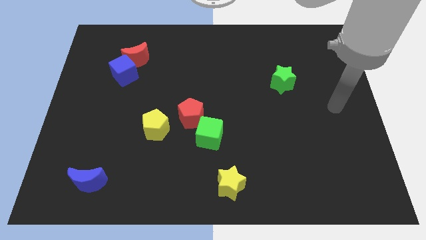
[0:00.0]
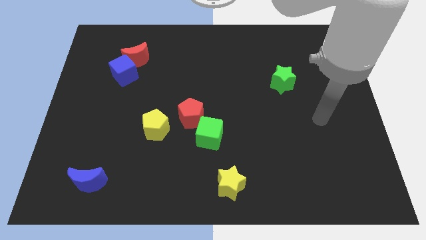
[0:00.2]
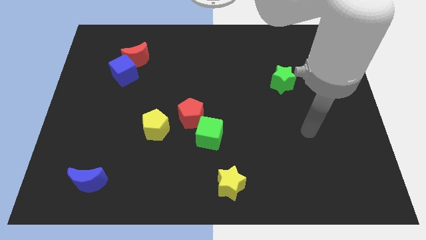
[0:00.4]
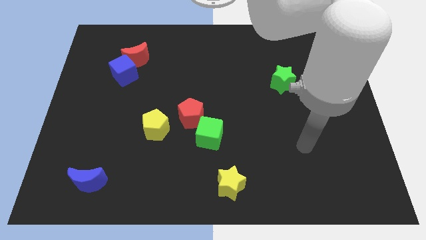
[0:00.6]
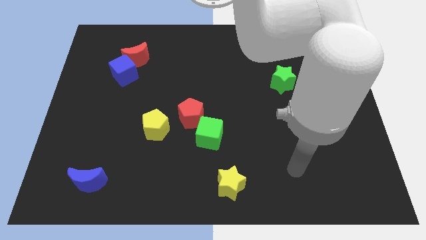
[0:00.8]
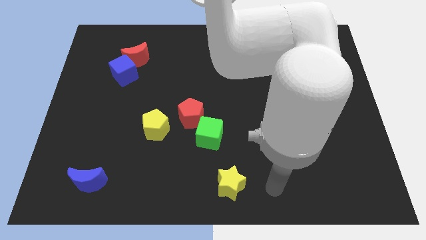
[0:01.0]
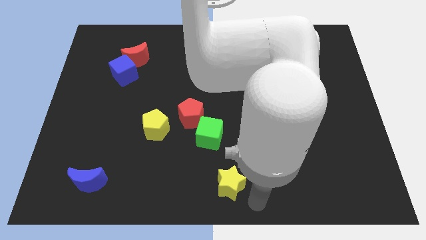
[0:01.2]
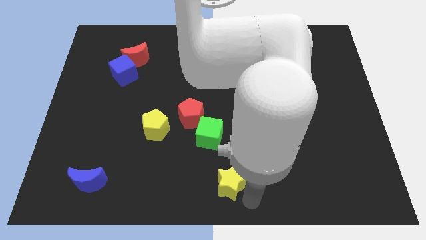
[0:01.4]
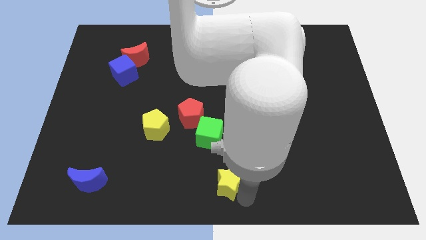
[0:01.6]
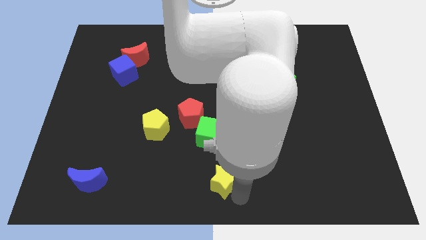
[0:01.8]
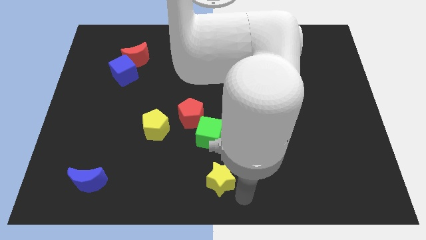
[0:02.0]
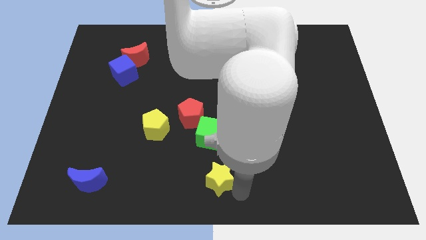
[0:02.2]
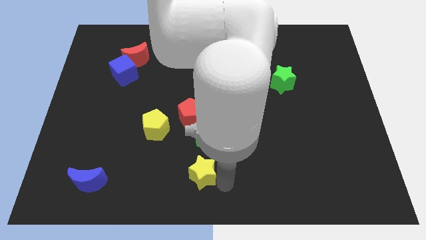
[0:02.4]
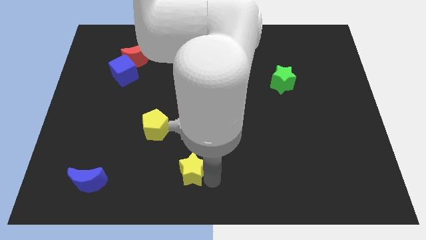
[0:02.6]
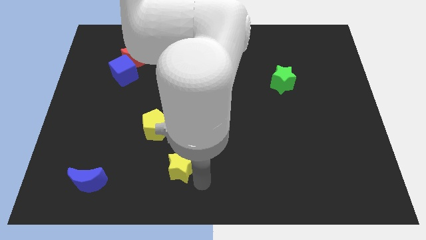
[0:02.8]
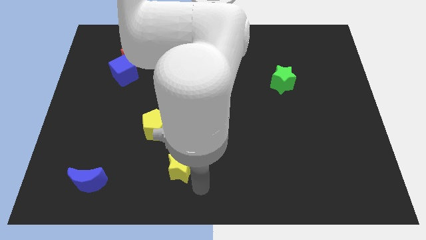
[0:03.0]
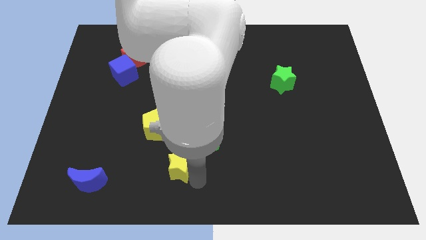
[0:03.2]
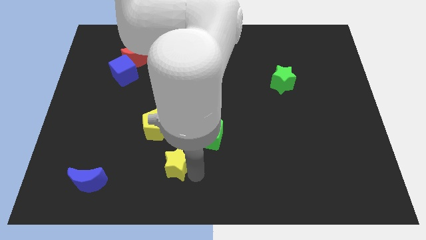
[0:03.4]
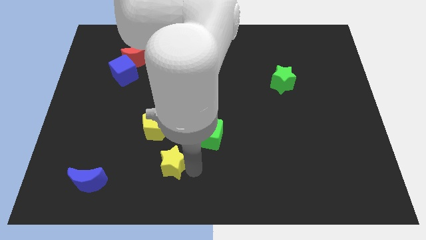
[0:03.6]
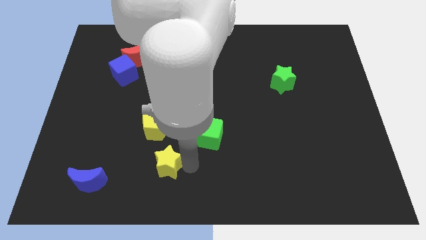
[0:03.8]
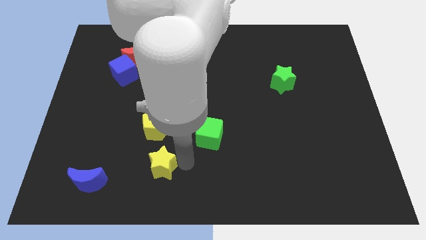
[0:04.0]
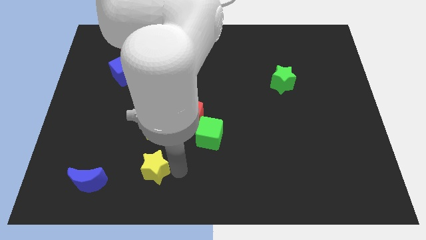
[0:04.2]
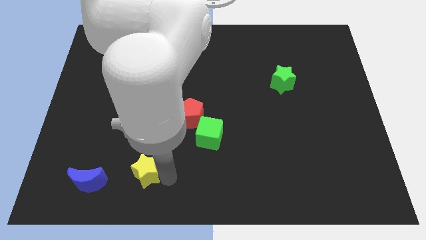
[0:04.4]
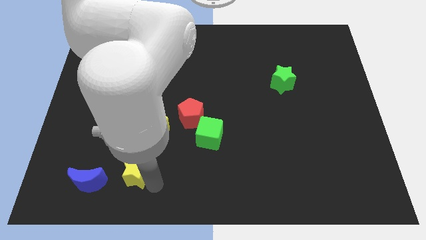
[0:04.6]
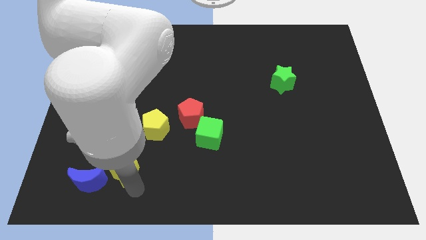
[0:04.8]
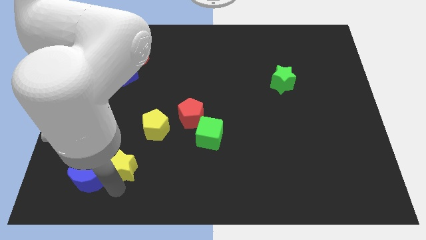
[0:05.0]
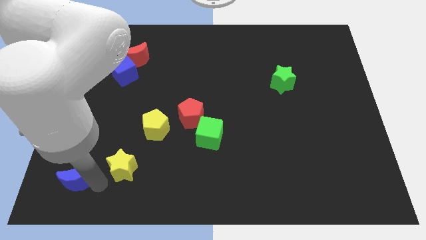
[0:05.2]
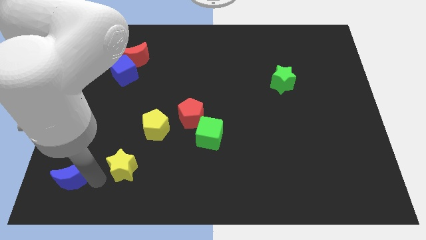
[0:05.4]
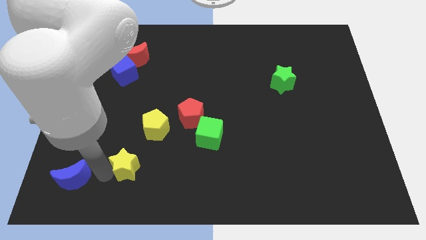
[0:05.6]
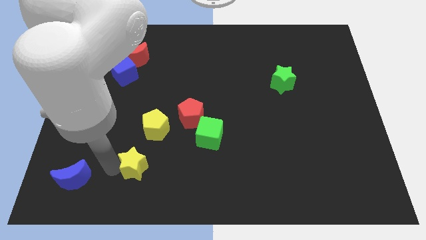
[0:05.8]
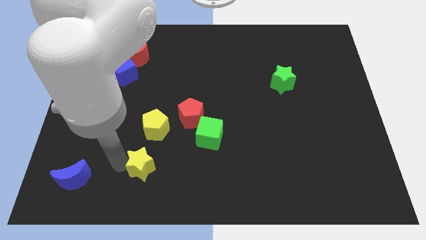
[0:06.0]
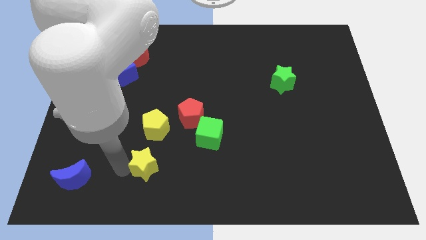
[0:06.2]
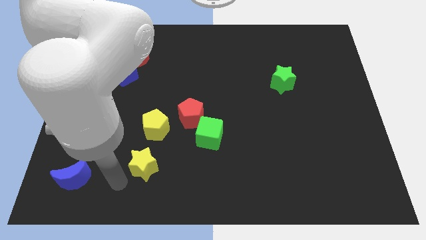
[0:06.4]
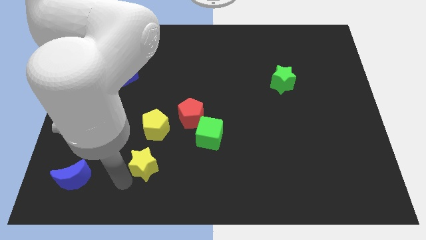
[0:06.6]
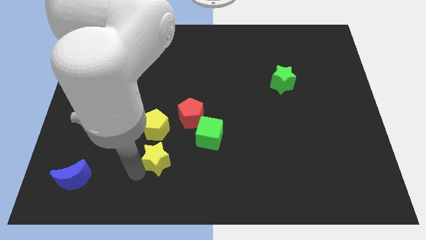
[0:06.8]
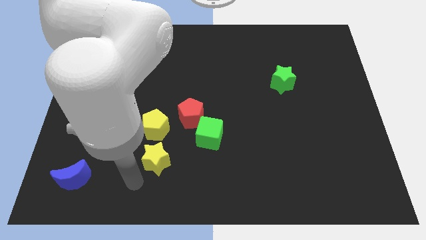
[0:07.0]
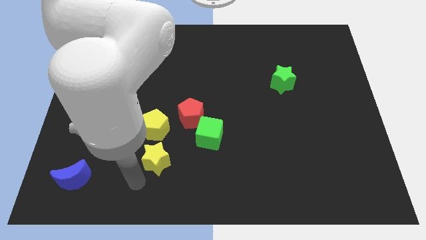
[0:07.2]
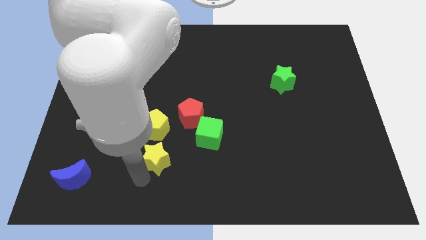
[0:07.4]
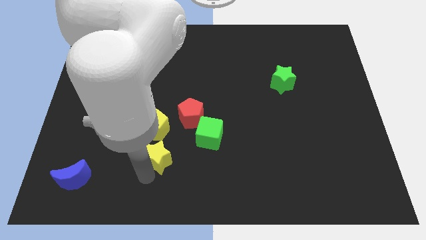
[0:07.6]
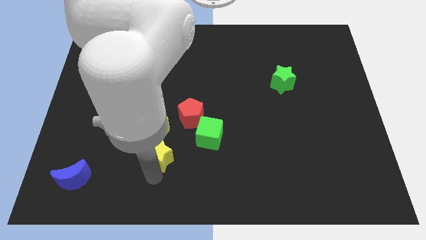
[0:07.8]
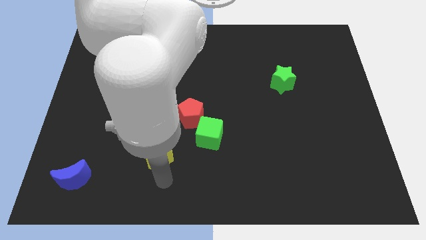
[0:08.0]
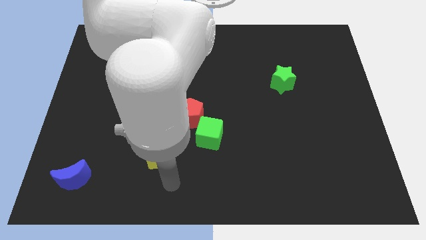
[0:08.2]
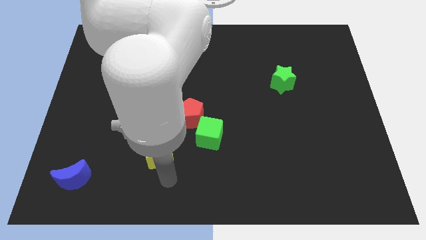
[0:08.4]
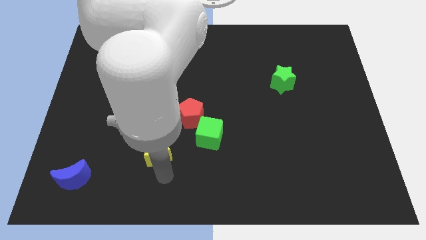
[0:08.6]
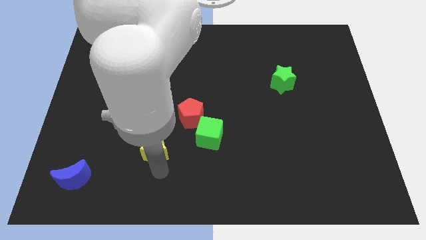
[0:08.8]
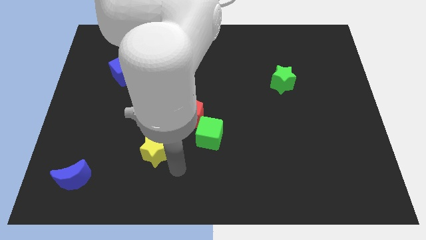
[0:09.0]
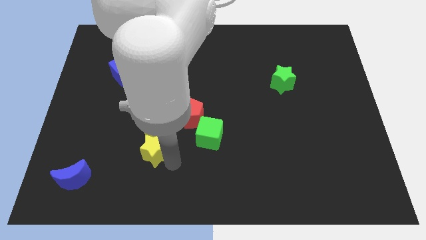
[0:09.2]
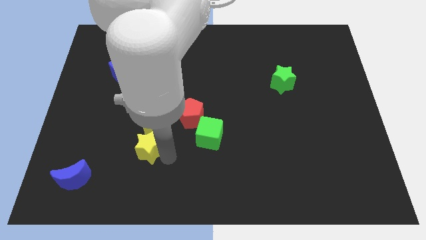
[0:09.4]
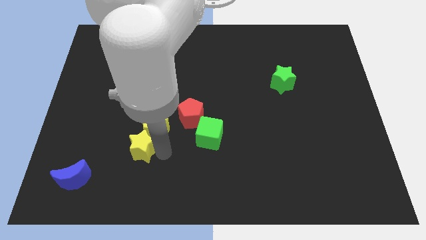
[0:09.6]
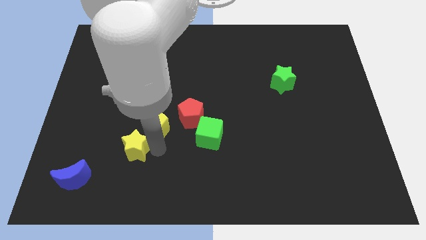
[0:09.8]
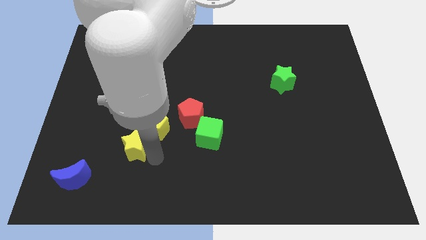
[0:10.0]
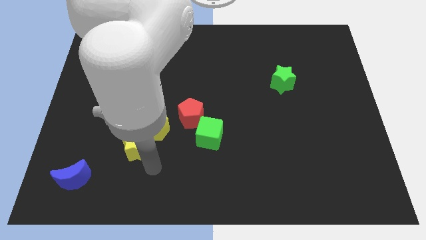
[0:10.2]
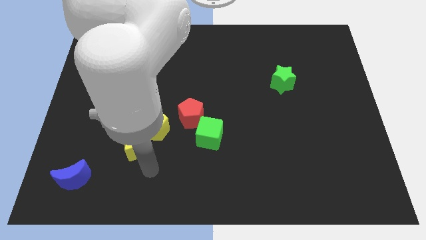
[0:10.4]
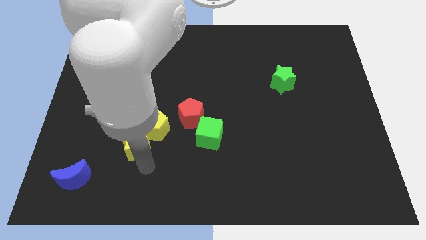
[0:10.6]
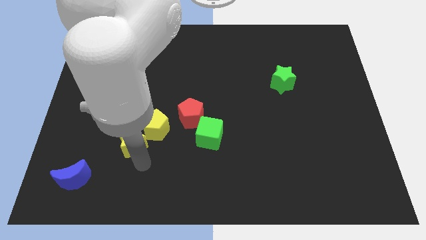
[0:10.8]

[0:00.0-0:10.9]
slide the yellow star to the left side of the yellow pentagon

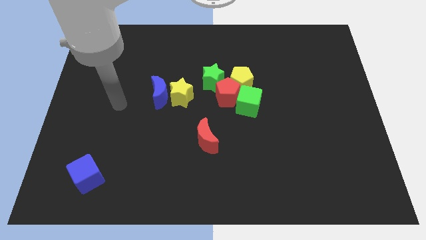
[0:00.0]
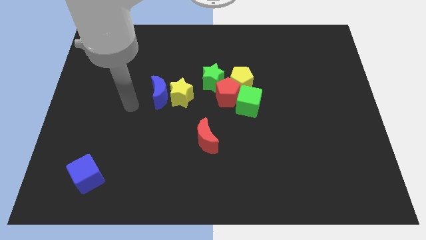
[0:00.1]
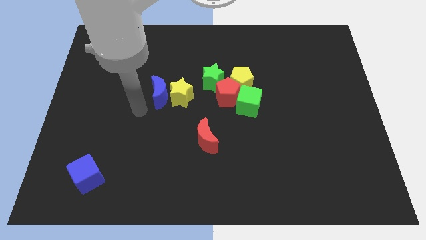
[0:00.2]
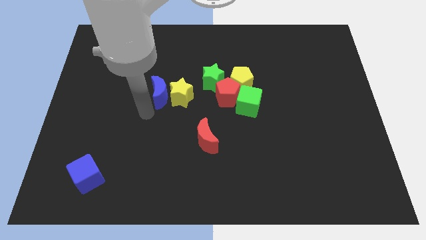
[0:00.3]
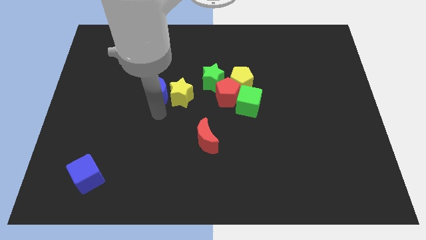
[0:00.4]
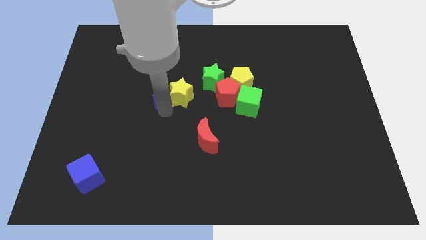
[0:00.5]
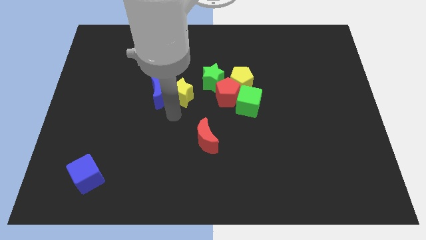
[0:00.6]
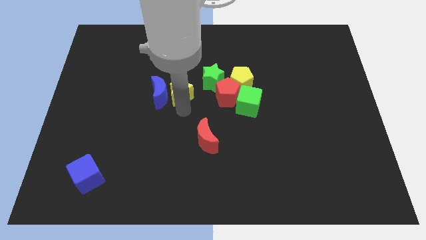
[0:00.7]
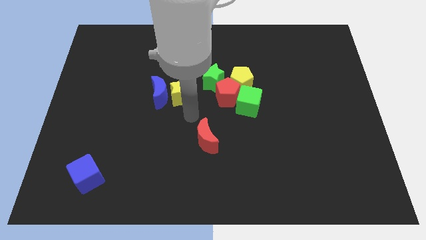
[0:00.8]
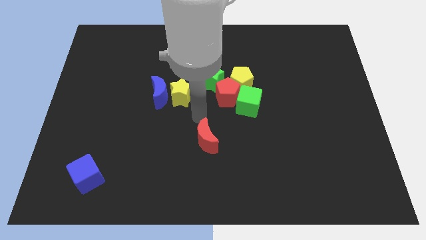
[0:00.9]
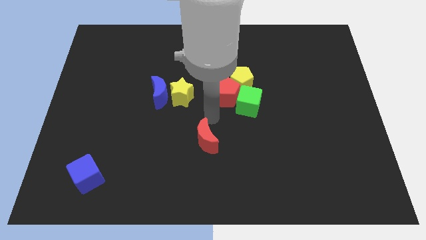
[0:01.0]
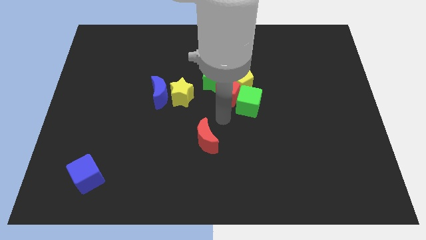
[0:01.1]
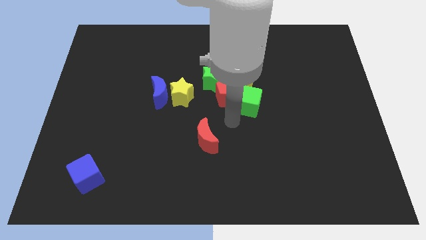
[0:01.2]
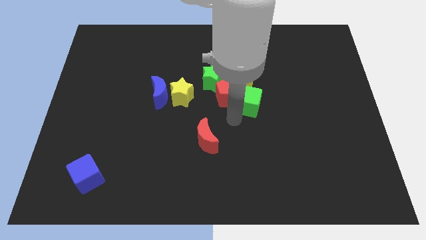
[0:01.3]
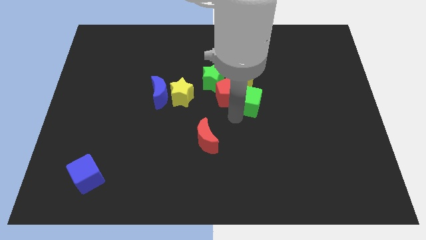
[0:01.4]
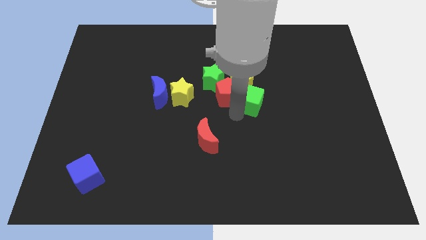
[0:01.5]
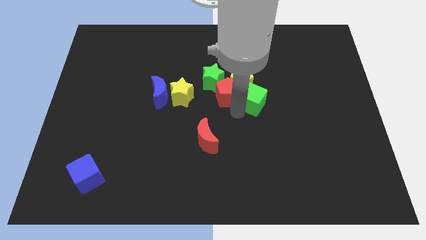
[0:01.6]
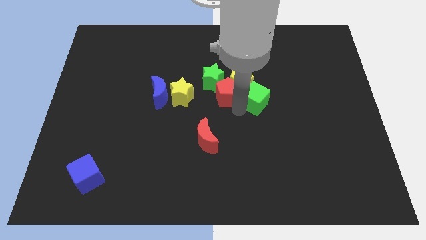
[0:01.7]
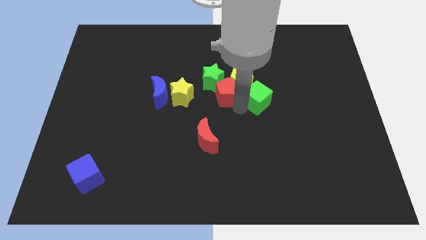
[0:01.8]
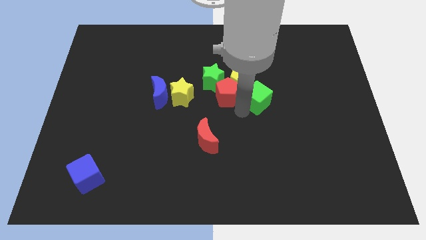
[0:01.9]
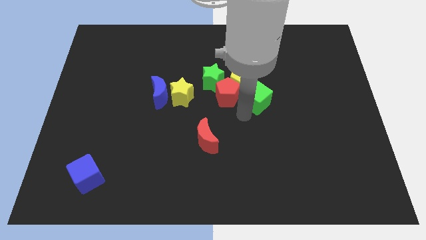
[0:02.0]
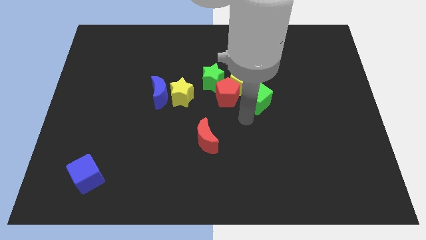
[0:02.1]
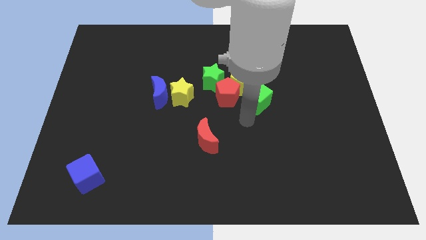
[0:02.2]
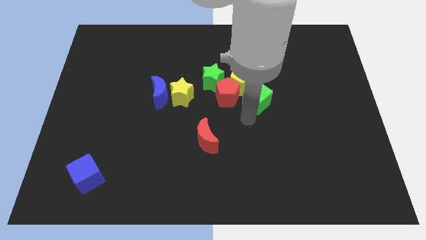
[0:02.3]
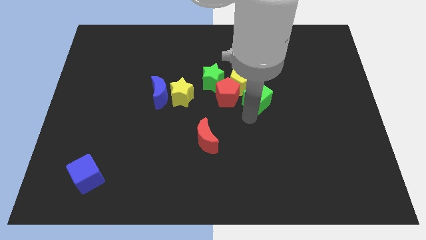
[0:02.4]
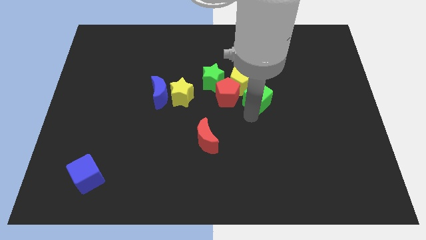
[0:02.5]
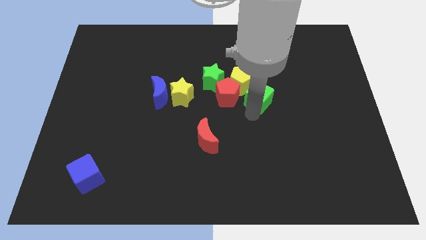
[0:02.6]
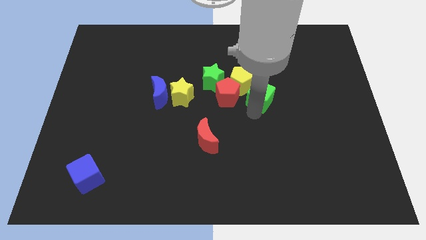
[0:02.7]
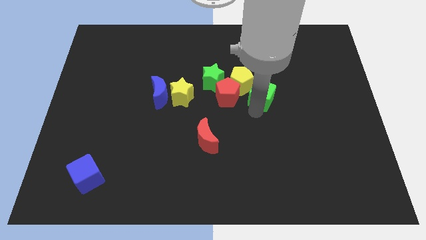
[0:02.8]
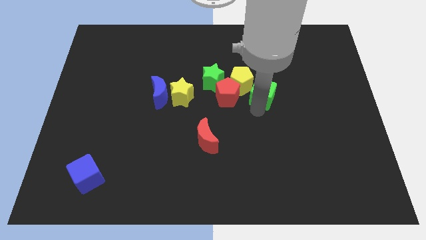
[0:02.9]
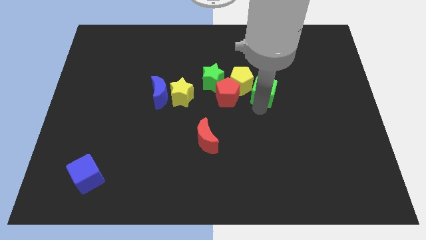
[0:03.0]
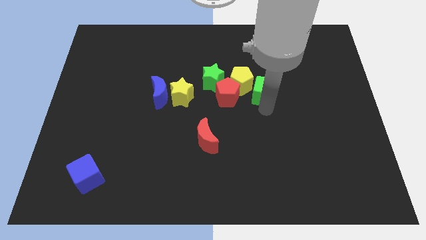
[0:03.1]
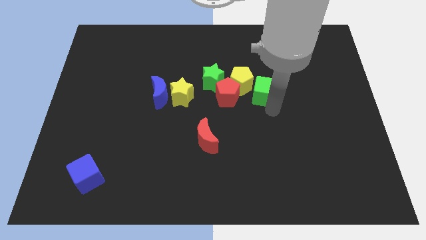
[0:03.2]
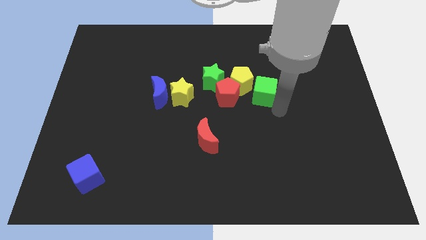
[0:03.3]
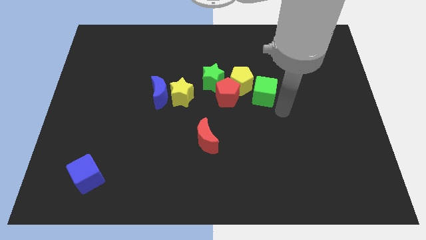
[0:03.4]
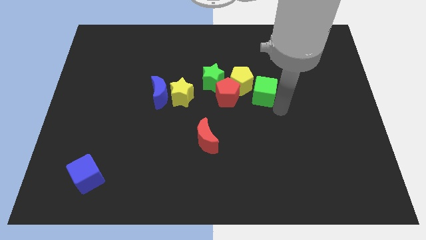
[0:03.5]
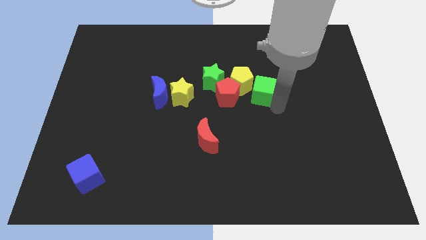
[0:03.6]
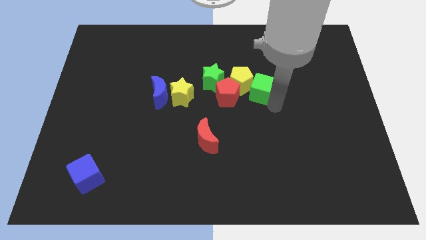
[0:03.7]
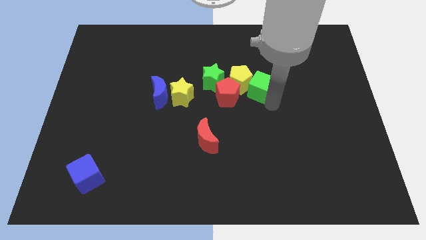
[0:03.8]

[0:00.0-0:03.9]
move the green cube to the top right of the red pentagon
